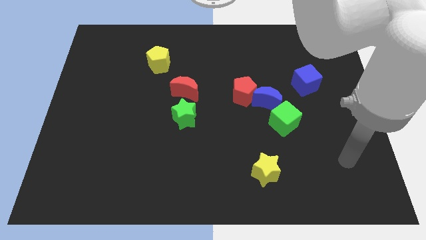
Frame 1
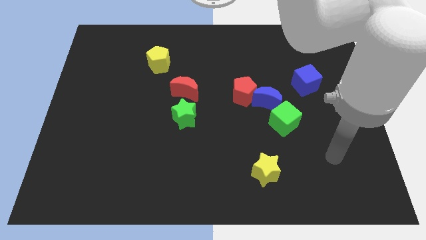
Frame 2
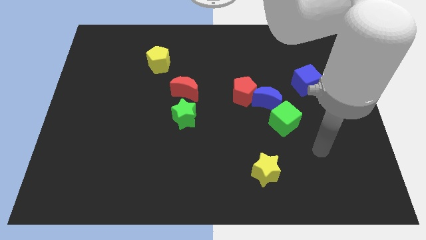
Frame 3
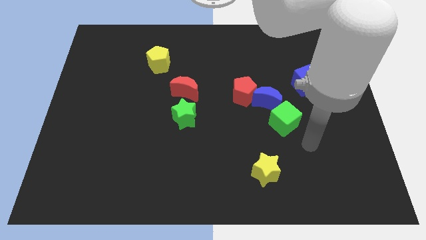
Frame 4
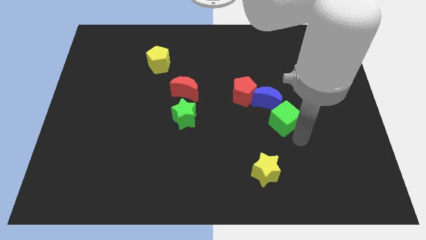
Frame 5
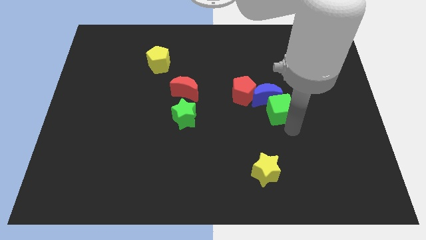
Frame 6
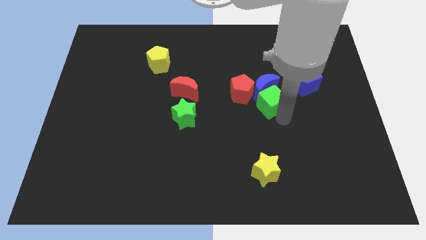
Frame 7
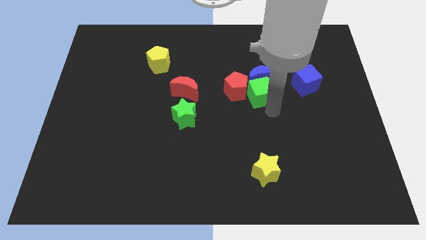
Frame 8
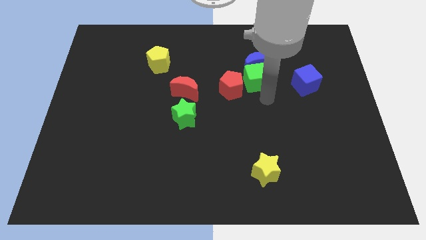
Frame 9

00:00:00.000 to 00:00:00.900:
pull the red pentagon apart from the blue moon

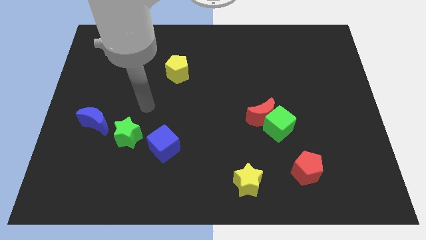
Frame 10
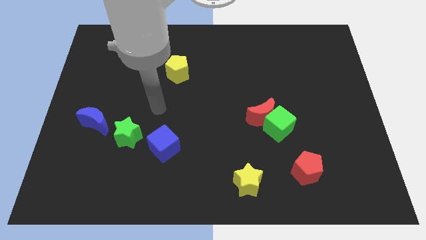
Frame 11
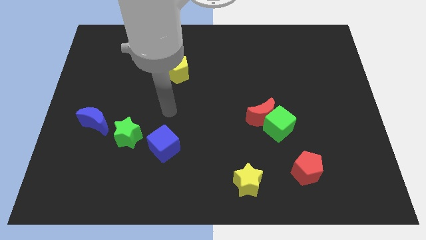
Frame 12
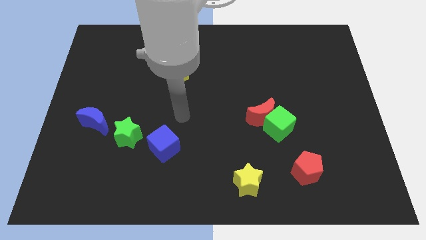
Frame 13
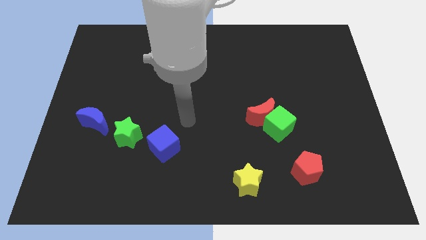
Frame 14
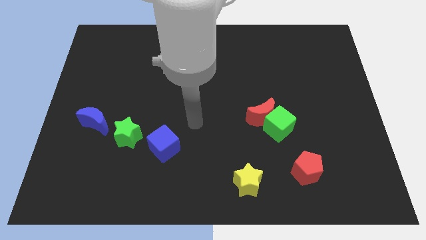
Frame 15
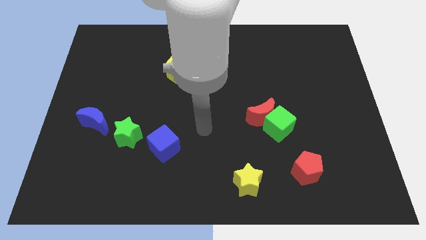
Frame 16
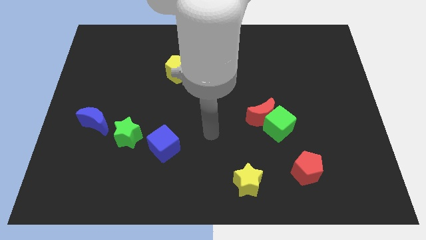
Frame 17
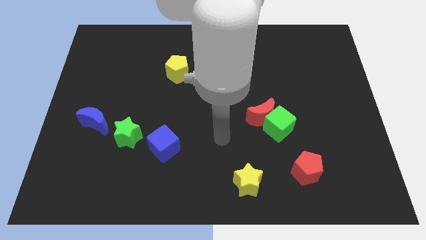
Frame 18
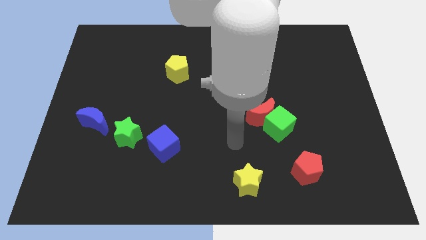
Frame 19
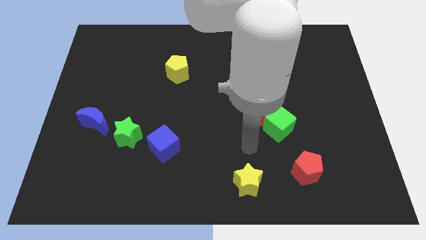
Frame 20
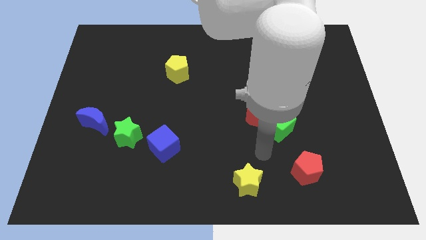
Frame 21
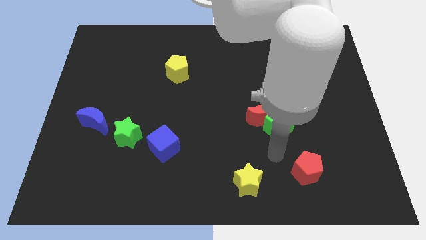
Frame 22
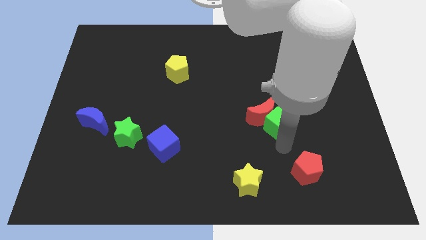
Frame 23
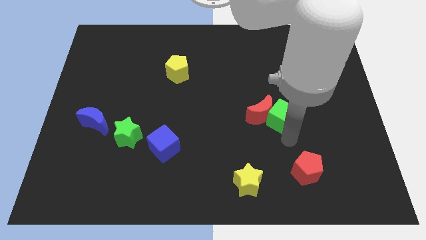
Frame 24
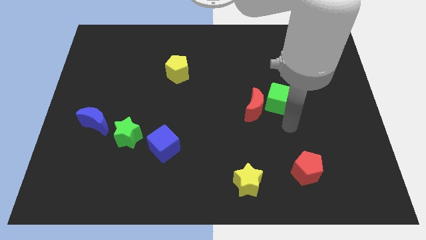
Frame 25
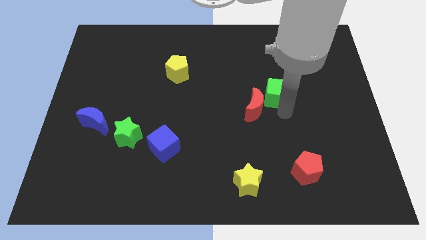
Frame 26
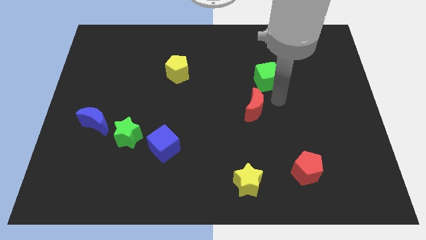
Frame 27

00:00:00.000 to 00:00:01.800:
pull the red moon apart from the green cube

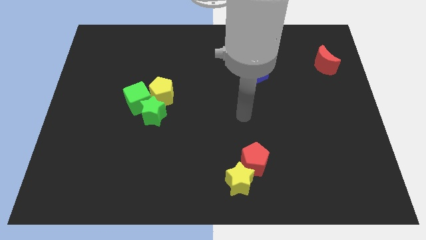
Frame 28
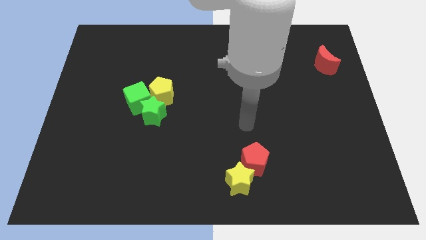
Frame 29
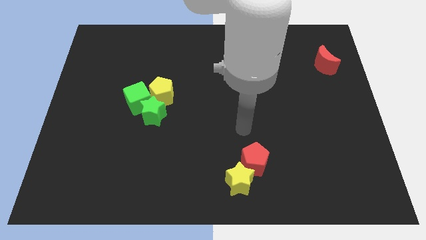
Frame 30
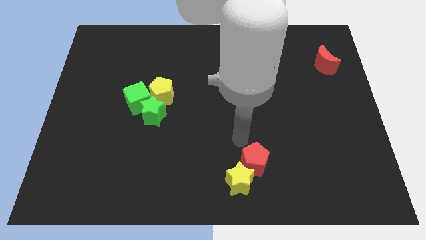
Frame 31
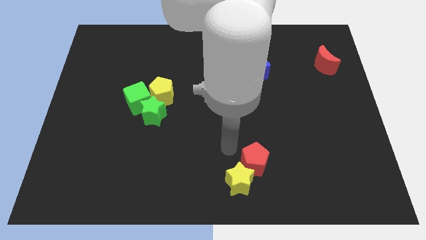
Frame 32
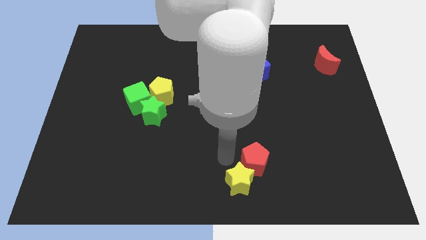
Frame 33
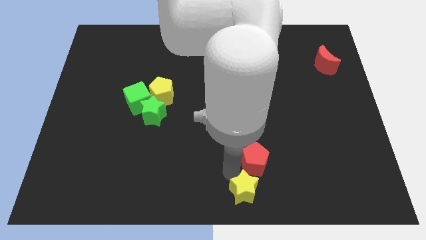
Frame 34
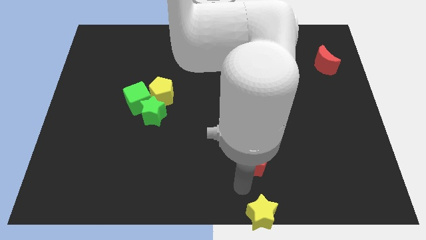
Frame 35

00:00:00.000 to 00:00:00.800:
separate the red pentagon from the yellow star

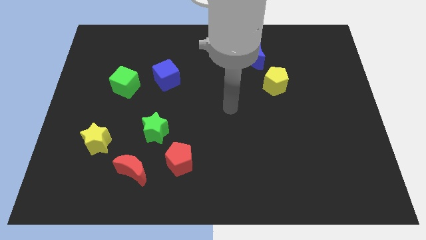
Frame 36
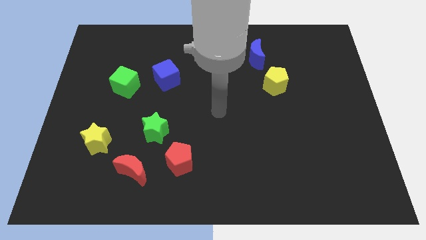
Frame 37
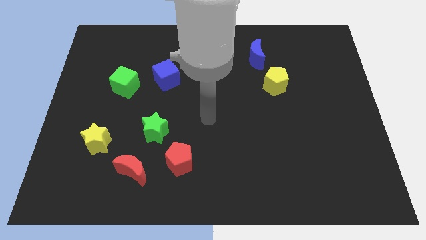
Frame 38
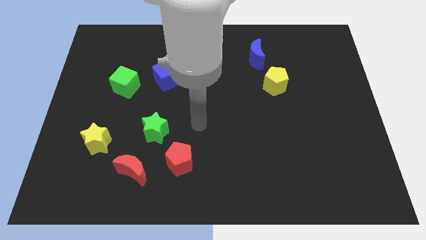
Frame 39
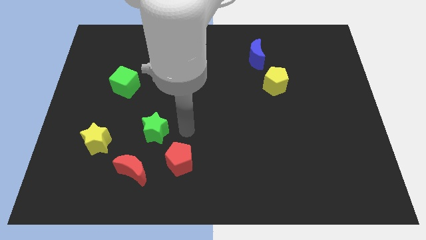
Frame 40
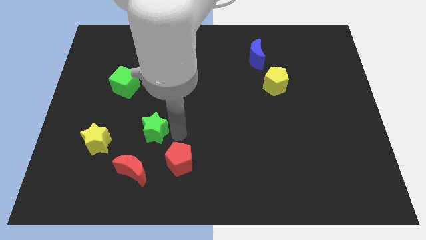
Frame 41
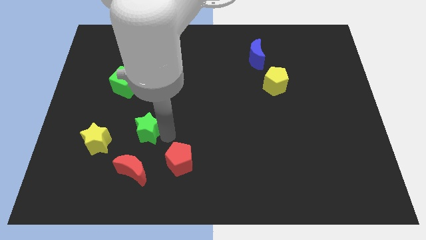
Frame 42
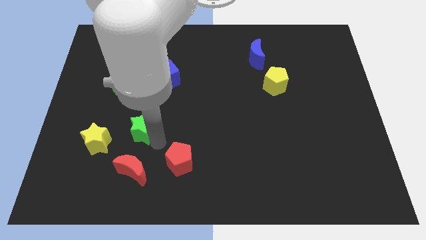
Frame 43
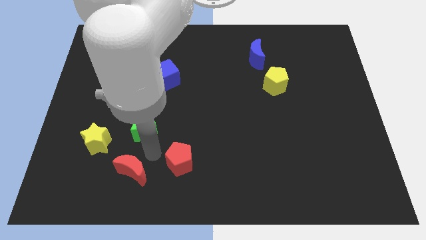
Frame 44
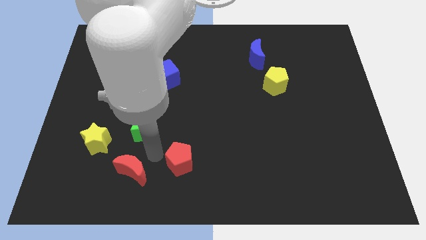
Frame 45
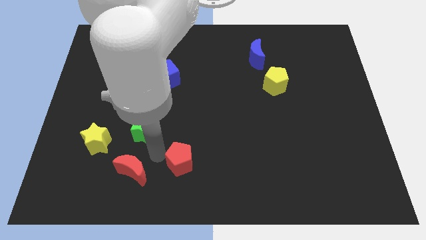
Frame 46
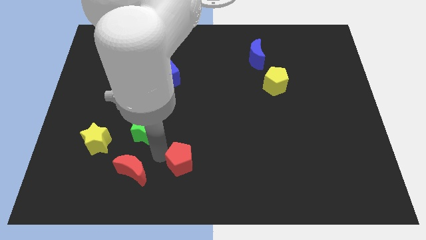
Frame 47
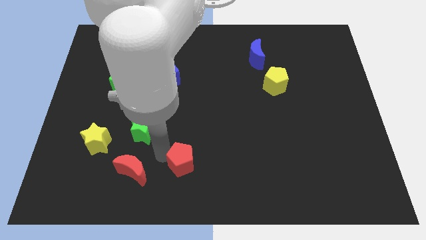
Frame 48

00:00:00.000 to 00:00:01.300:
separate the red pentagon from the green star and red moon

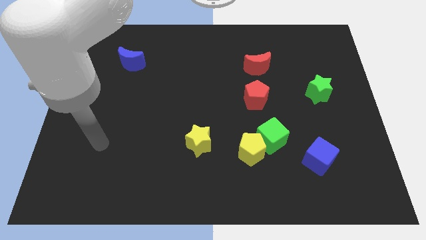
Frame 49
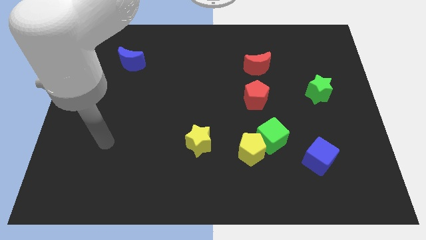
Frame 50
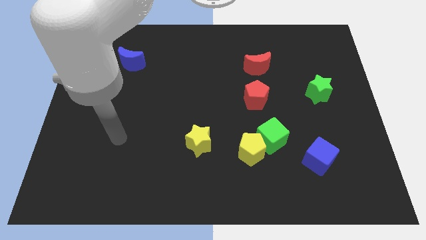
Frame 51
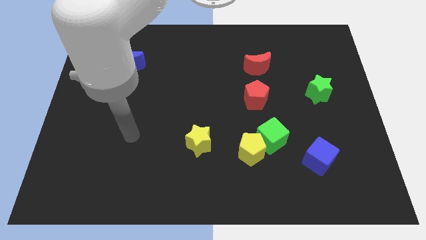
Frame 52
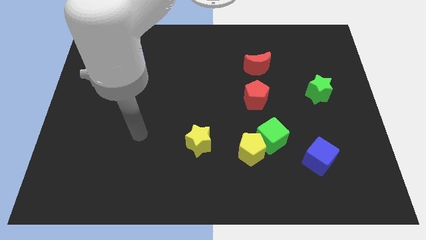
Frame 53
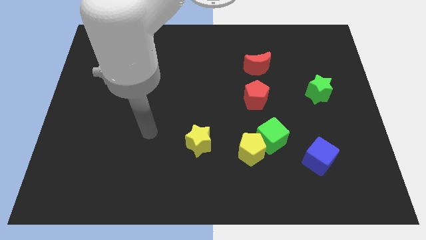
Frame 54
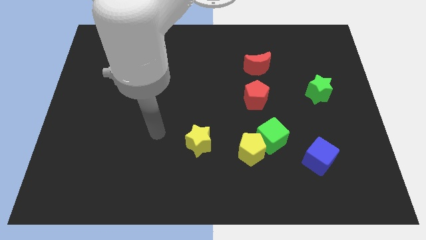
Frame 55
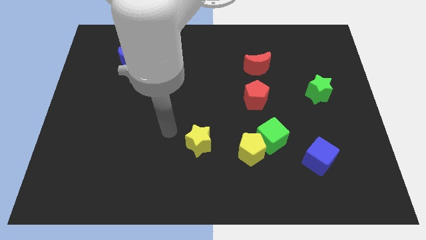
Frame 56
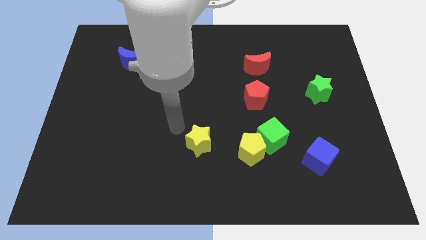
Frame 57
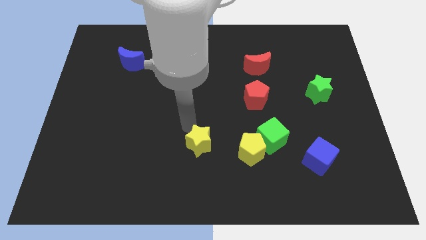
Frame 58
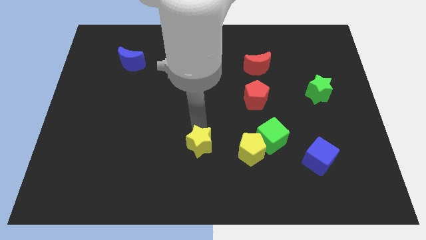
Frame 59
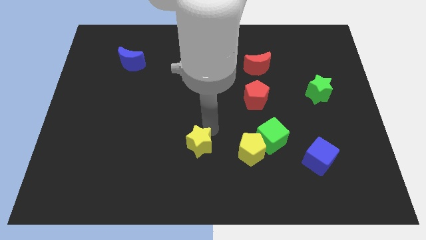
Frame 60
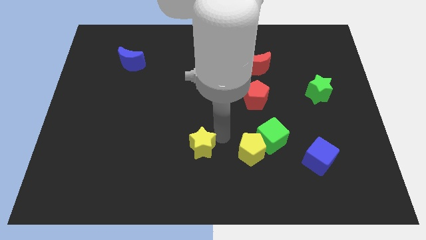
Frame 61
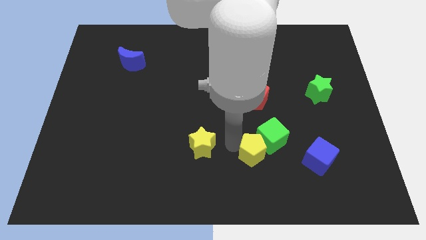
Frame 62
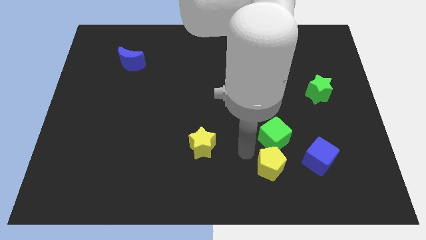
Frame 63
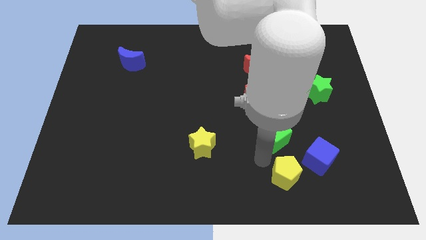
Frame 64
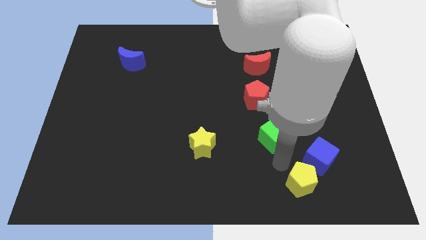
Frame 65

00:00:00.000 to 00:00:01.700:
move the green cube away from the yellow pentagon

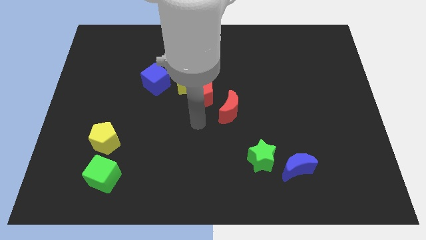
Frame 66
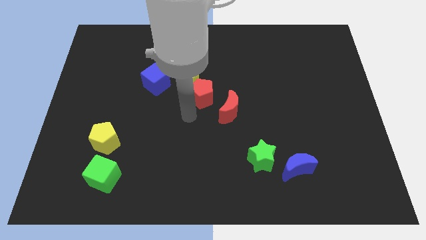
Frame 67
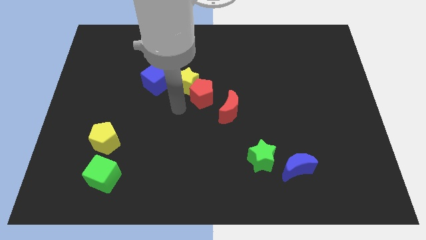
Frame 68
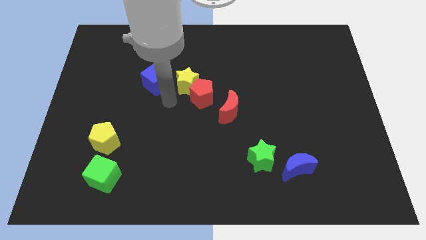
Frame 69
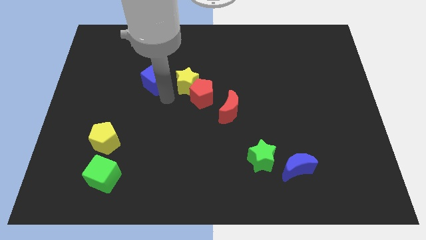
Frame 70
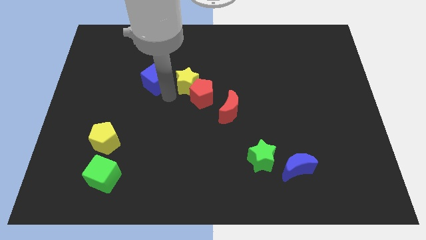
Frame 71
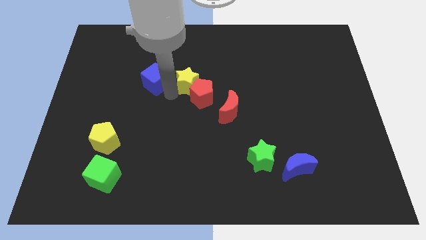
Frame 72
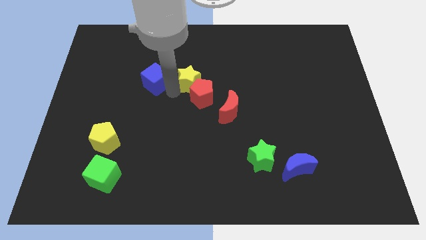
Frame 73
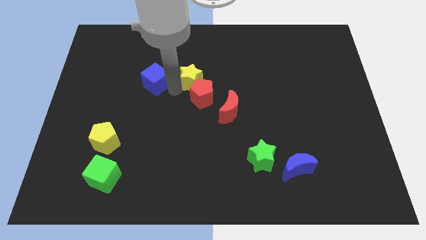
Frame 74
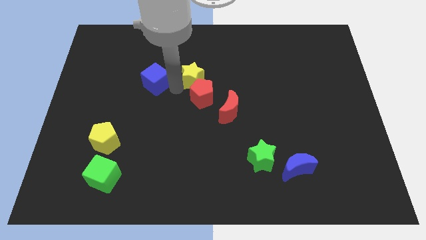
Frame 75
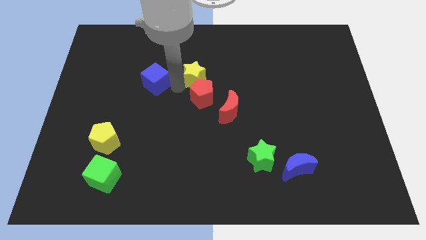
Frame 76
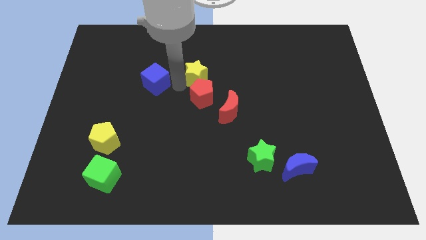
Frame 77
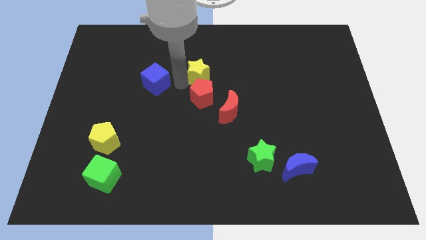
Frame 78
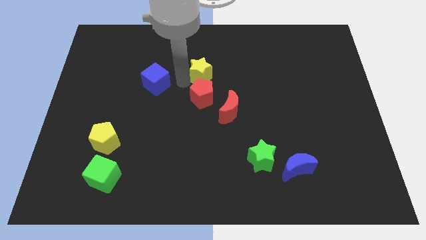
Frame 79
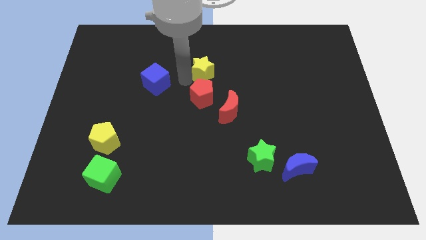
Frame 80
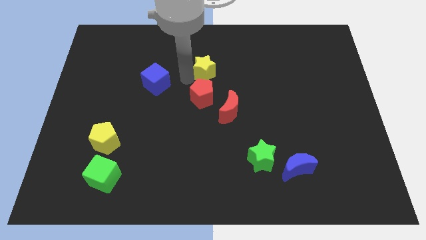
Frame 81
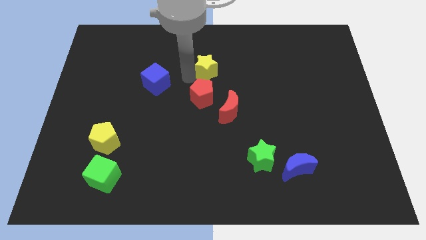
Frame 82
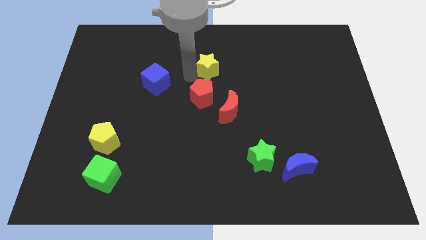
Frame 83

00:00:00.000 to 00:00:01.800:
move the yellow star away from the red pentagon and blue cube

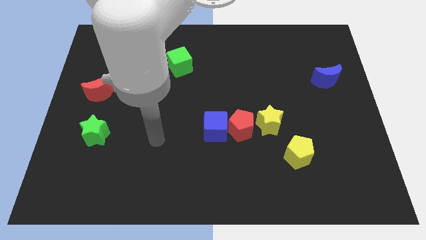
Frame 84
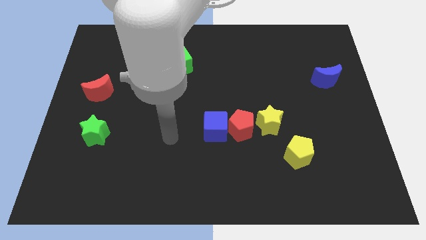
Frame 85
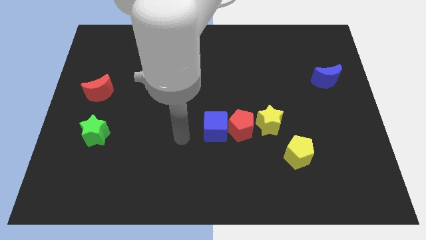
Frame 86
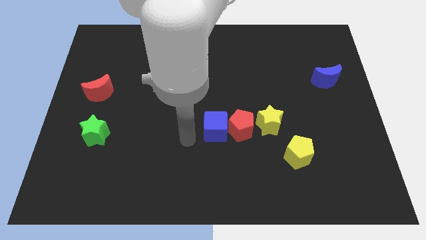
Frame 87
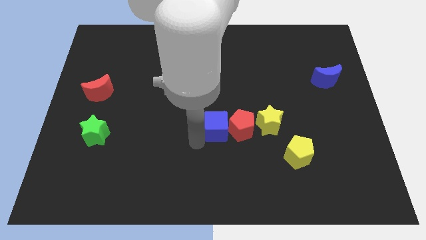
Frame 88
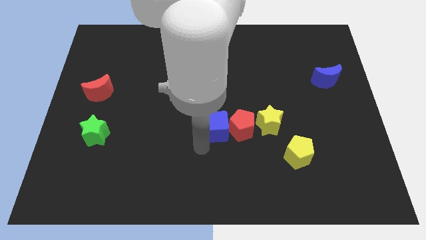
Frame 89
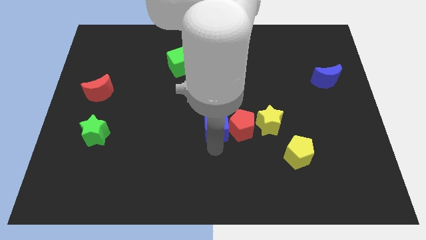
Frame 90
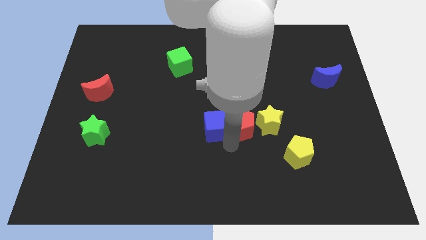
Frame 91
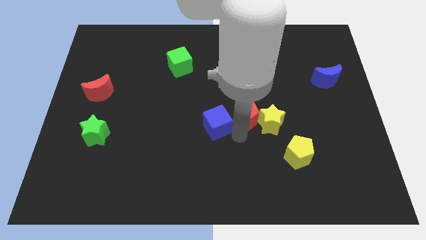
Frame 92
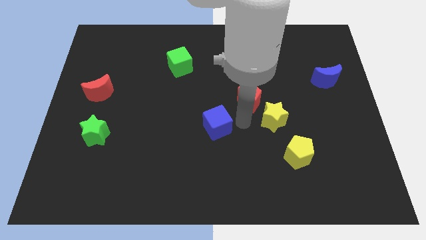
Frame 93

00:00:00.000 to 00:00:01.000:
separate the blue cube from the red pentagon
